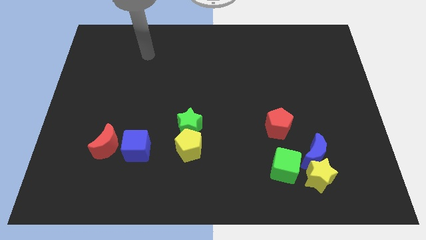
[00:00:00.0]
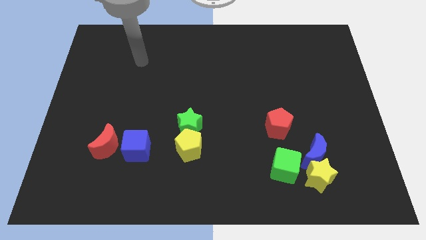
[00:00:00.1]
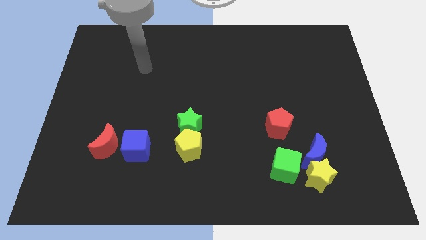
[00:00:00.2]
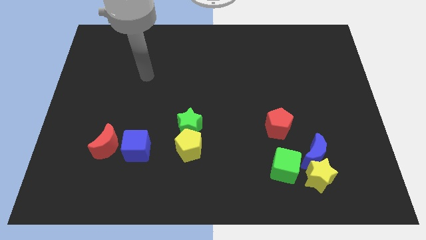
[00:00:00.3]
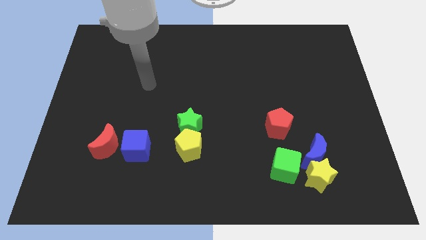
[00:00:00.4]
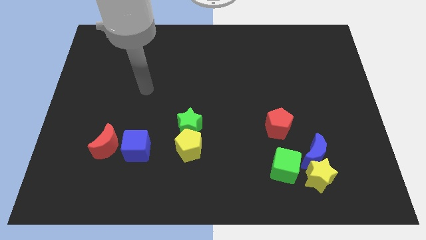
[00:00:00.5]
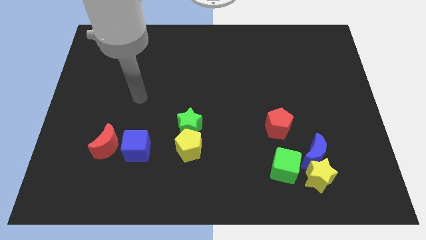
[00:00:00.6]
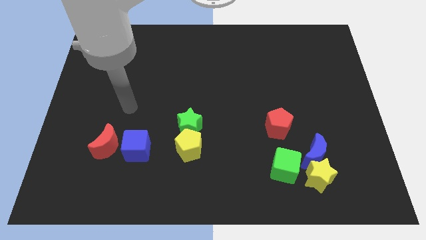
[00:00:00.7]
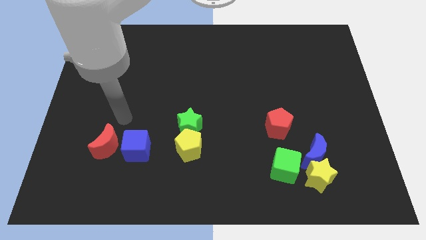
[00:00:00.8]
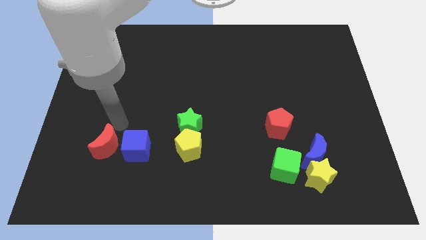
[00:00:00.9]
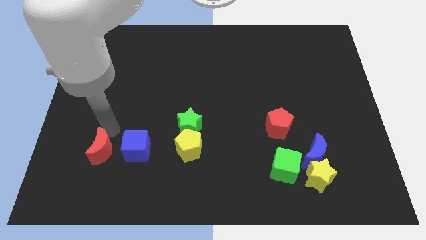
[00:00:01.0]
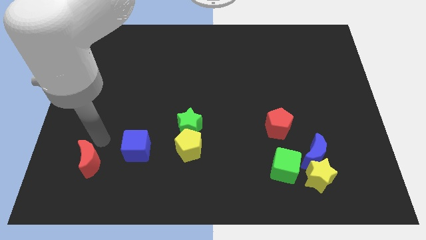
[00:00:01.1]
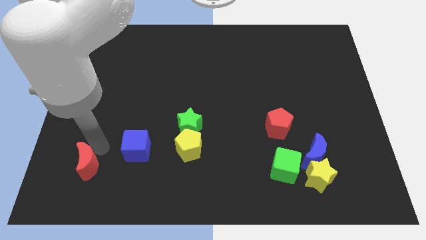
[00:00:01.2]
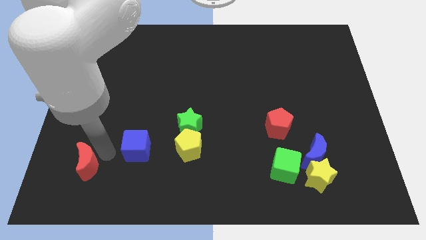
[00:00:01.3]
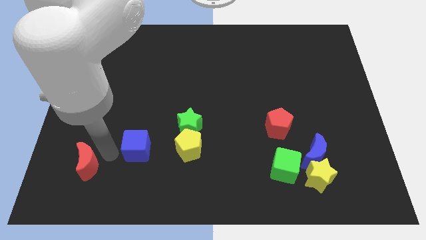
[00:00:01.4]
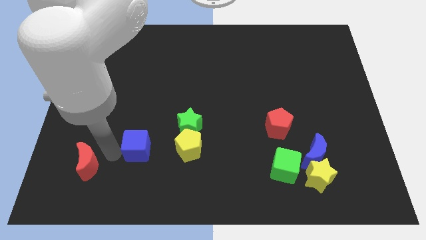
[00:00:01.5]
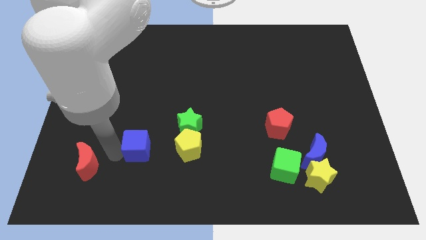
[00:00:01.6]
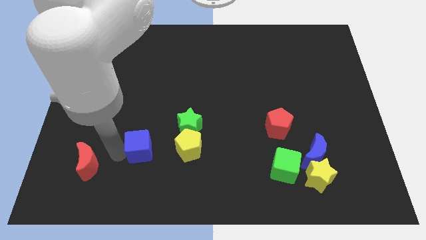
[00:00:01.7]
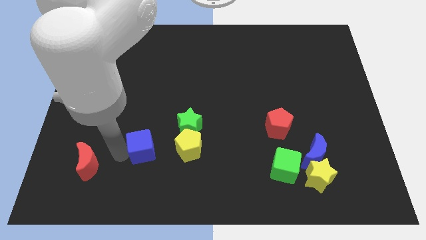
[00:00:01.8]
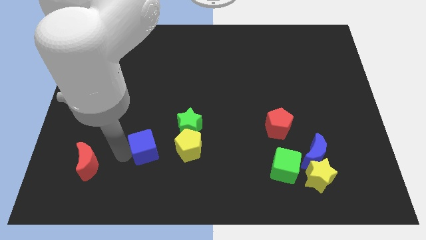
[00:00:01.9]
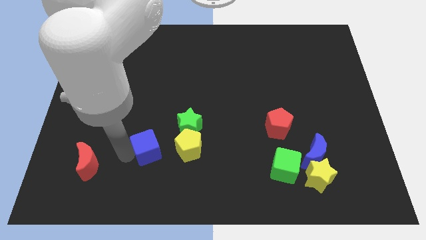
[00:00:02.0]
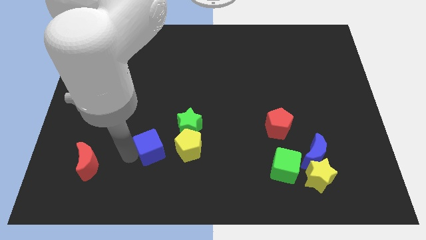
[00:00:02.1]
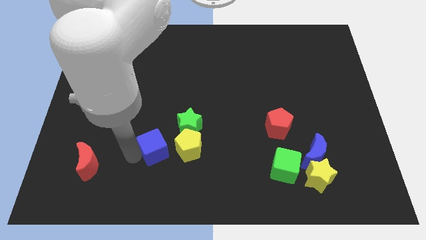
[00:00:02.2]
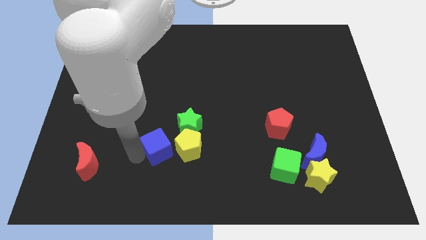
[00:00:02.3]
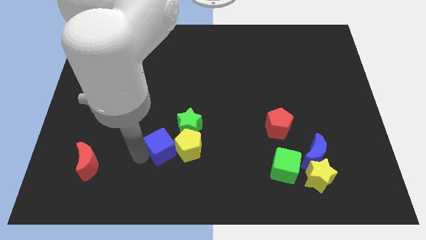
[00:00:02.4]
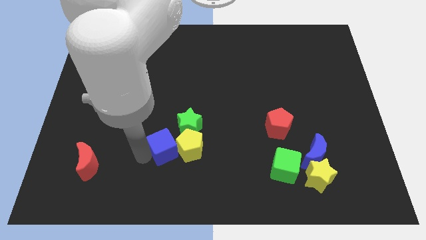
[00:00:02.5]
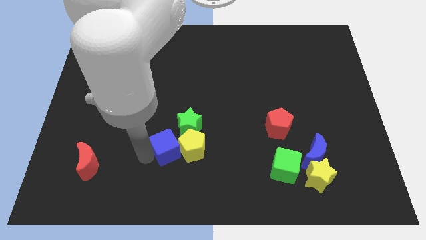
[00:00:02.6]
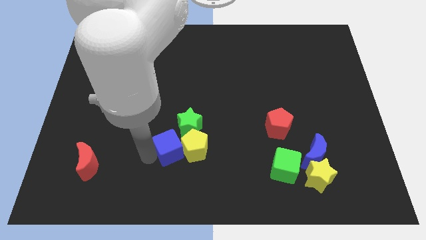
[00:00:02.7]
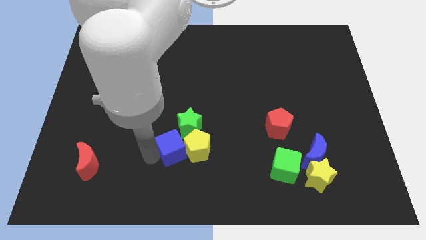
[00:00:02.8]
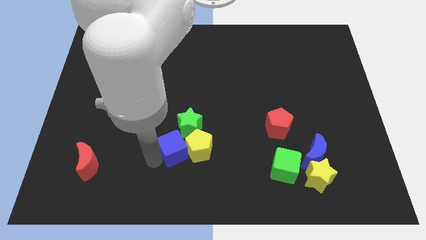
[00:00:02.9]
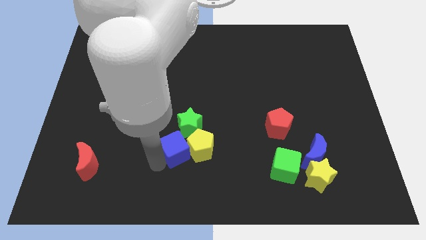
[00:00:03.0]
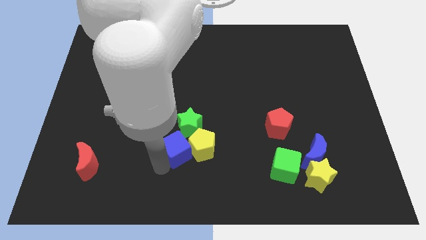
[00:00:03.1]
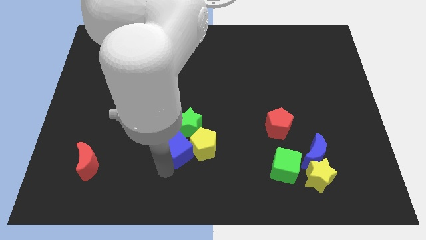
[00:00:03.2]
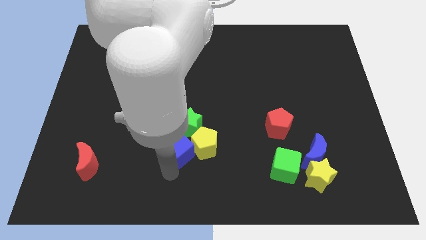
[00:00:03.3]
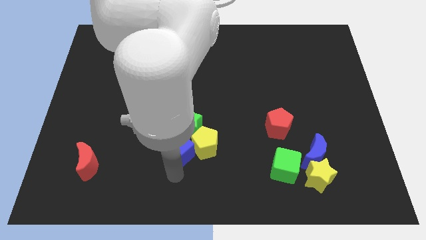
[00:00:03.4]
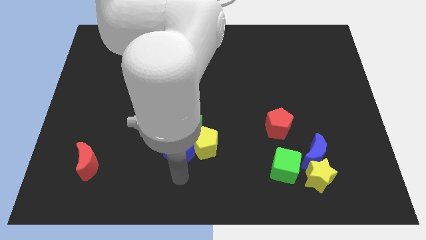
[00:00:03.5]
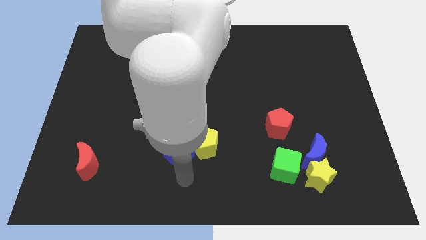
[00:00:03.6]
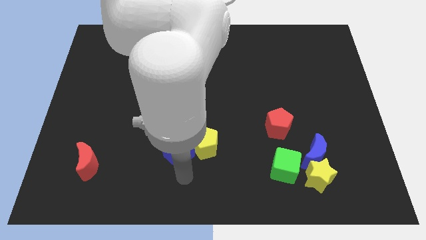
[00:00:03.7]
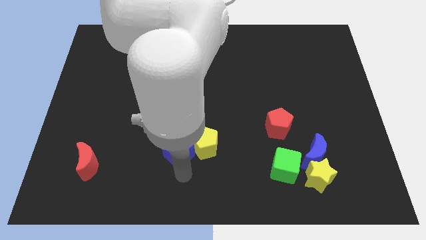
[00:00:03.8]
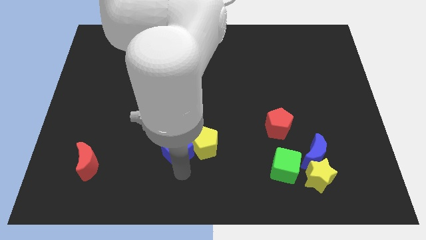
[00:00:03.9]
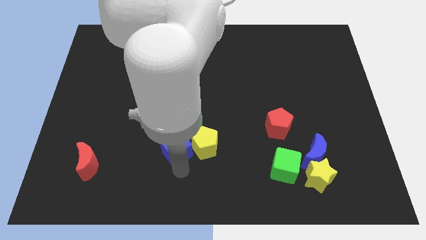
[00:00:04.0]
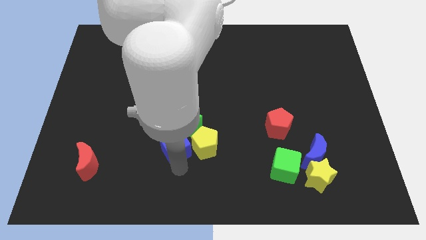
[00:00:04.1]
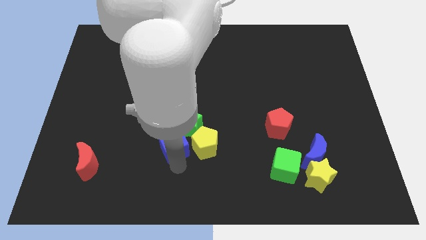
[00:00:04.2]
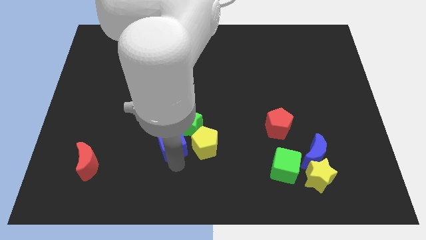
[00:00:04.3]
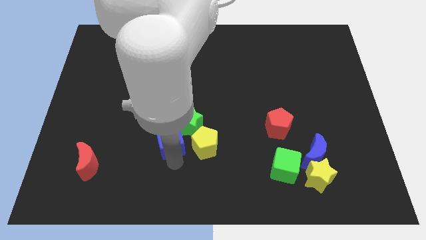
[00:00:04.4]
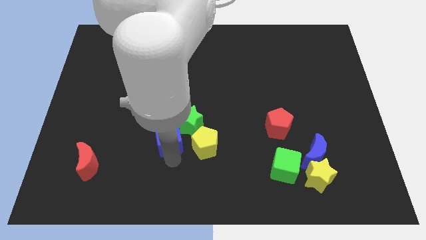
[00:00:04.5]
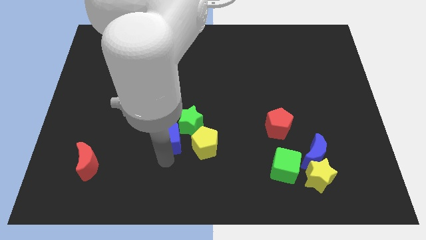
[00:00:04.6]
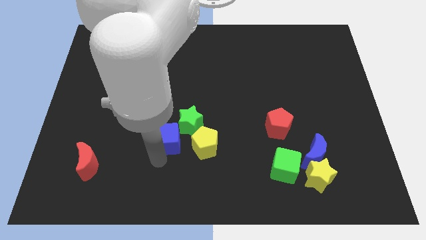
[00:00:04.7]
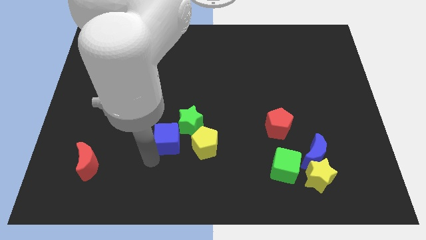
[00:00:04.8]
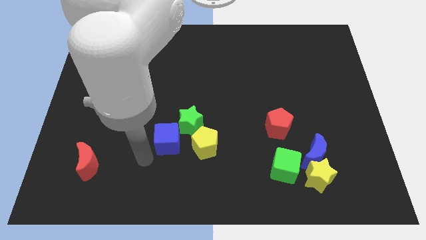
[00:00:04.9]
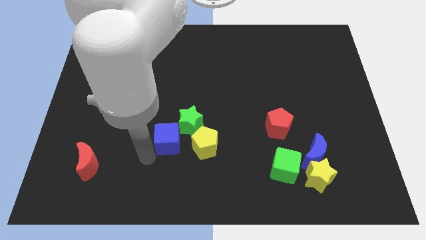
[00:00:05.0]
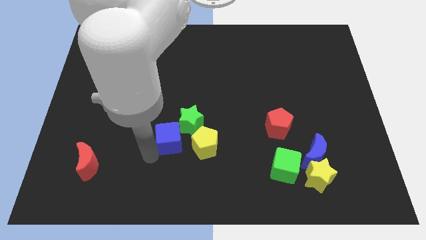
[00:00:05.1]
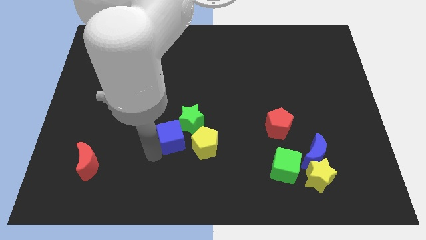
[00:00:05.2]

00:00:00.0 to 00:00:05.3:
push the blue cube towards the green star

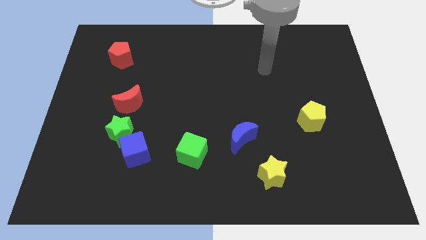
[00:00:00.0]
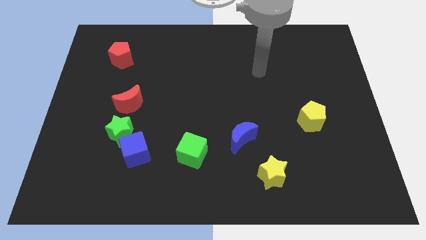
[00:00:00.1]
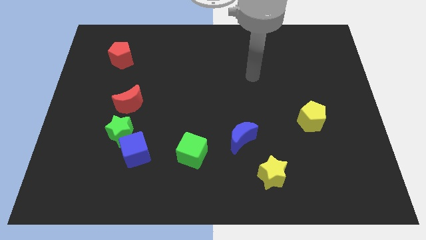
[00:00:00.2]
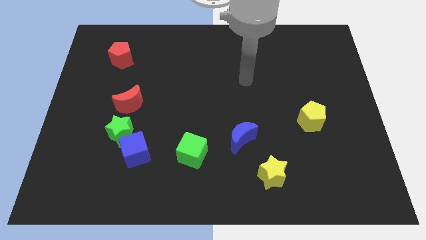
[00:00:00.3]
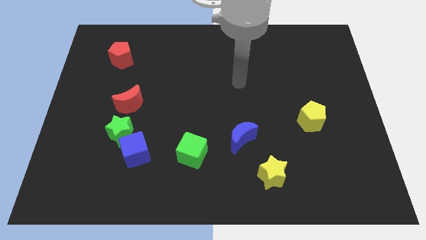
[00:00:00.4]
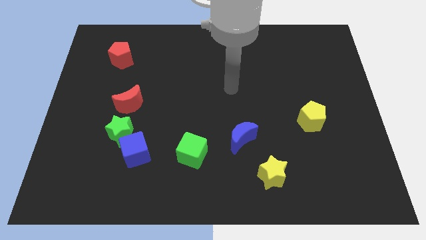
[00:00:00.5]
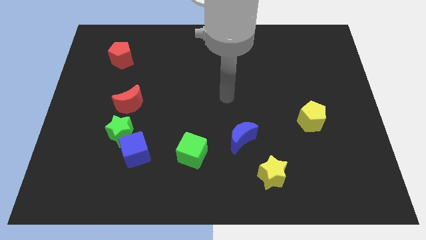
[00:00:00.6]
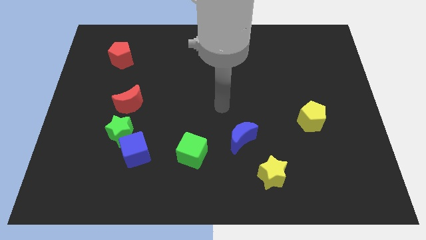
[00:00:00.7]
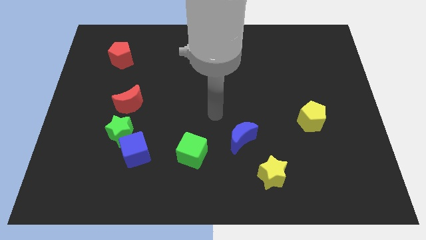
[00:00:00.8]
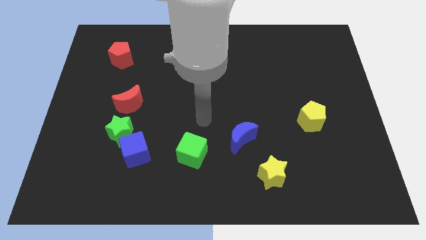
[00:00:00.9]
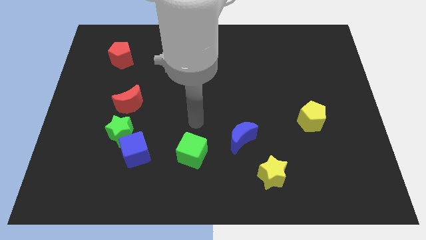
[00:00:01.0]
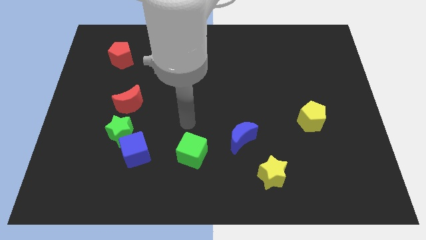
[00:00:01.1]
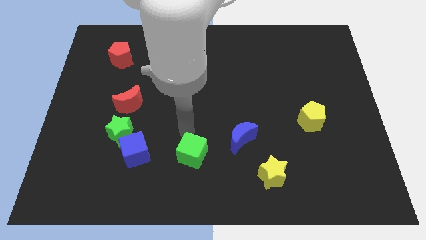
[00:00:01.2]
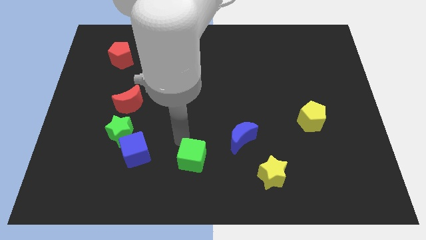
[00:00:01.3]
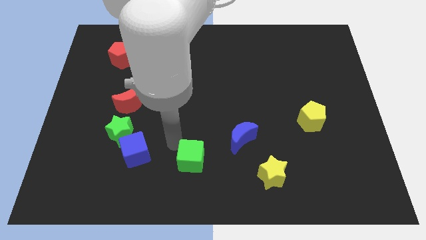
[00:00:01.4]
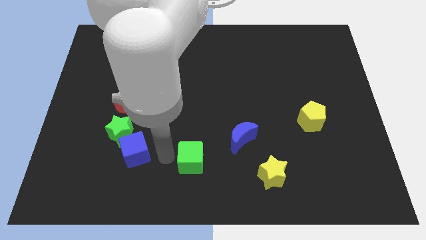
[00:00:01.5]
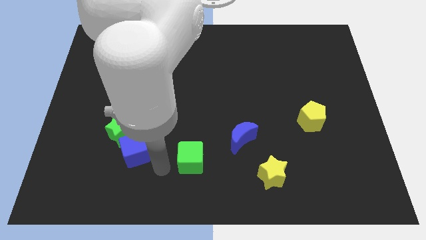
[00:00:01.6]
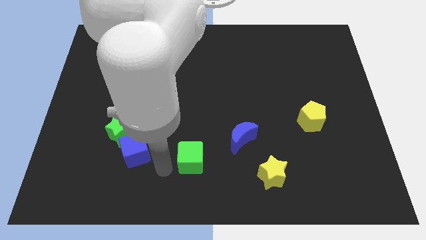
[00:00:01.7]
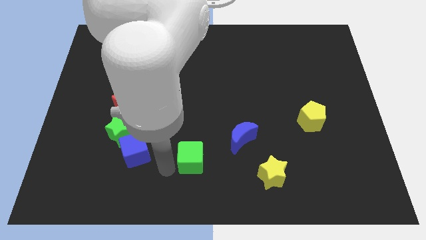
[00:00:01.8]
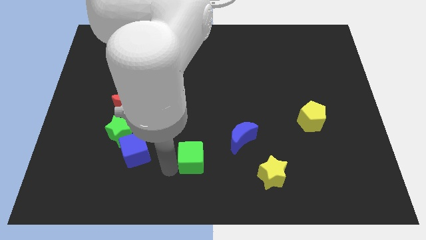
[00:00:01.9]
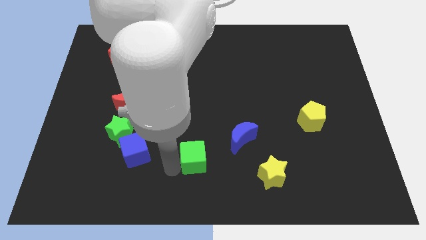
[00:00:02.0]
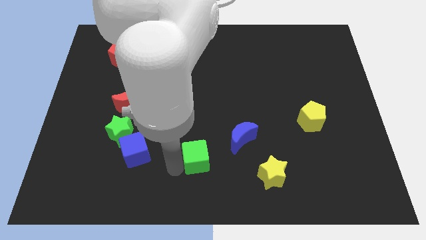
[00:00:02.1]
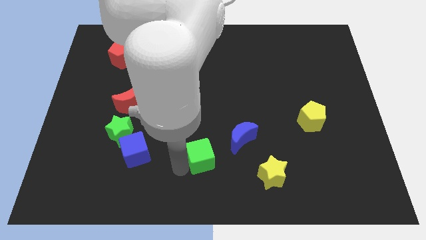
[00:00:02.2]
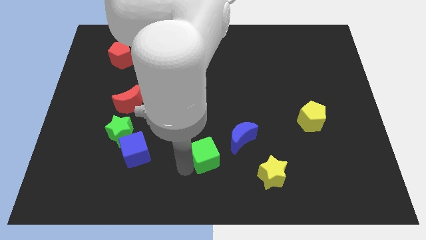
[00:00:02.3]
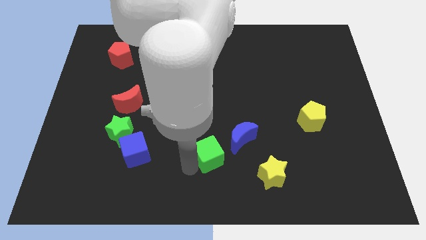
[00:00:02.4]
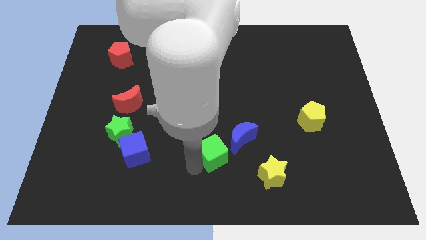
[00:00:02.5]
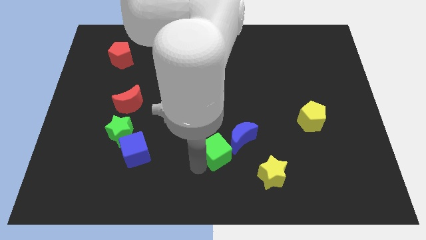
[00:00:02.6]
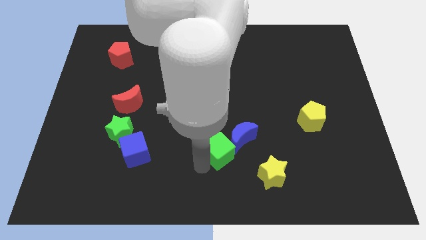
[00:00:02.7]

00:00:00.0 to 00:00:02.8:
move the green cube close to the blue moon
